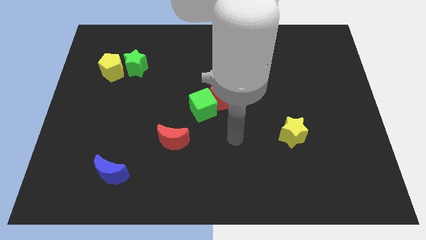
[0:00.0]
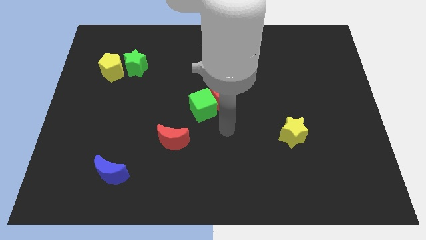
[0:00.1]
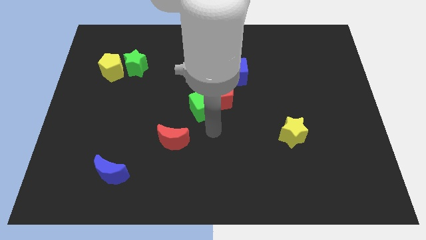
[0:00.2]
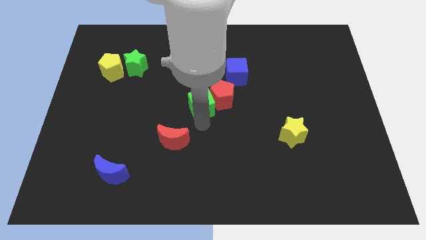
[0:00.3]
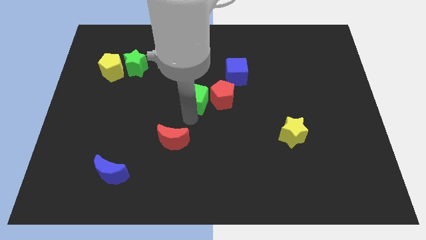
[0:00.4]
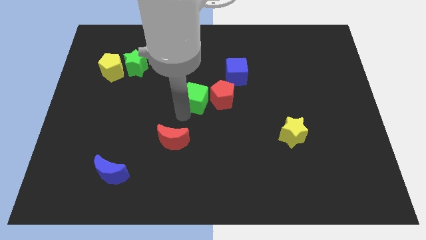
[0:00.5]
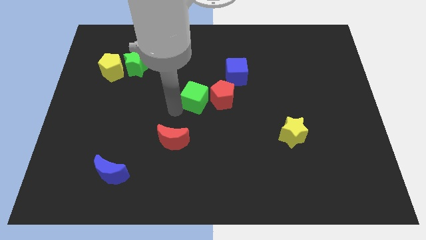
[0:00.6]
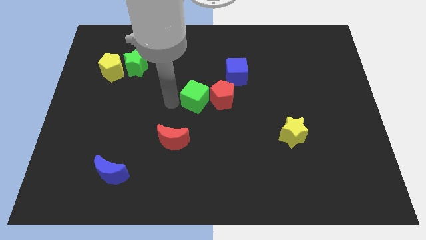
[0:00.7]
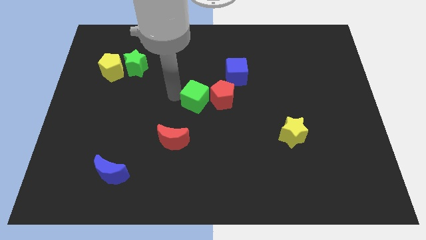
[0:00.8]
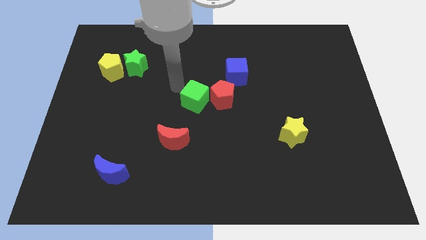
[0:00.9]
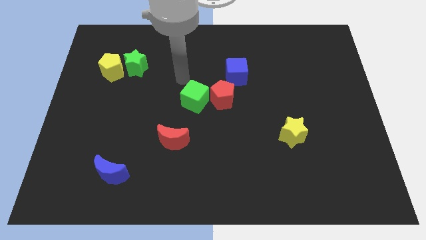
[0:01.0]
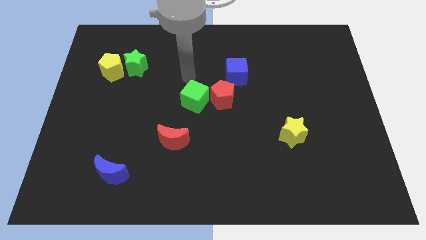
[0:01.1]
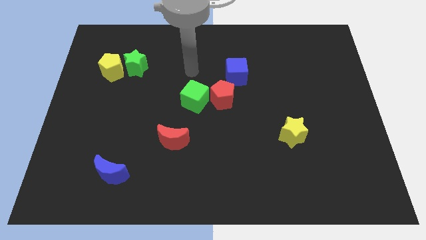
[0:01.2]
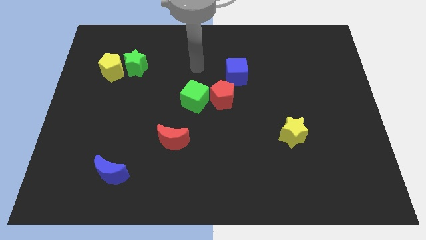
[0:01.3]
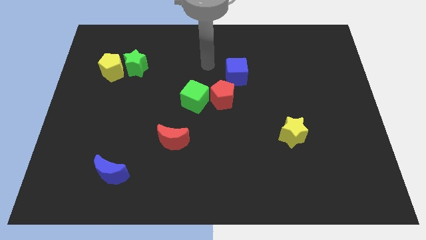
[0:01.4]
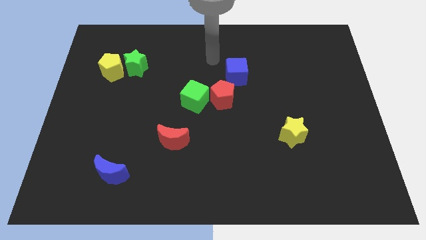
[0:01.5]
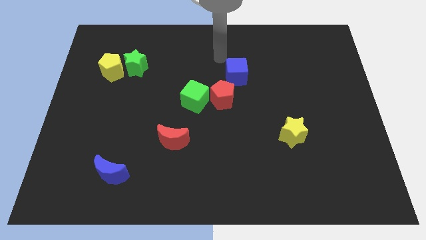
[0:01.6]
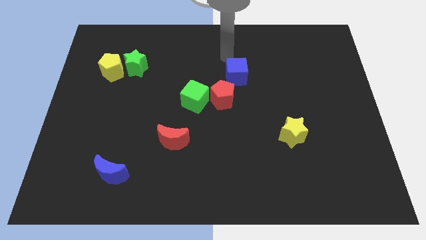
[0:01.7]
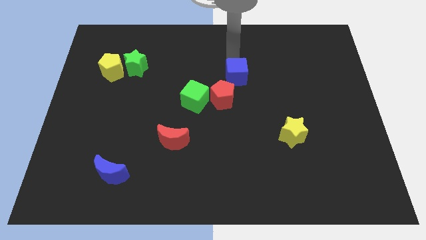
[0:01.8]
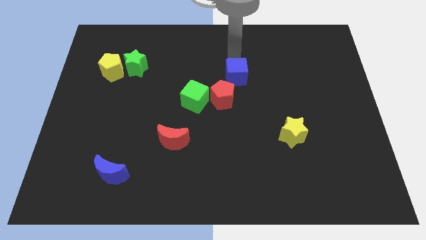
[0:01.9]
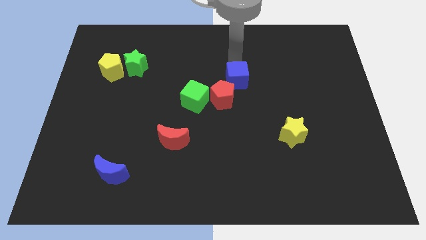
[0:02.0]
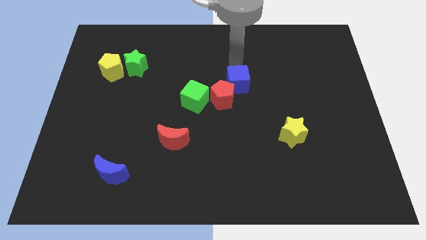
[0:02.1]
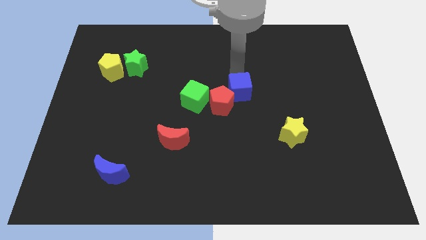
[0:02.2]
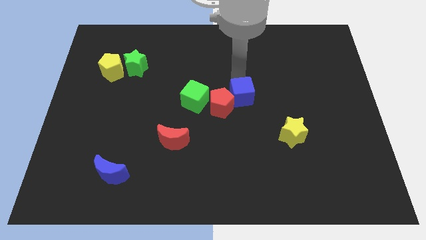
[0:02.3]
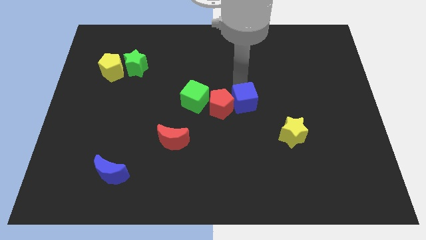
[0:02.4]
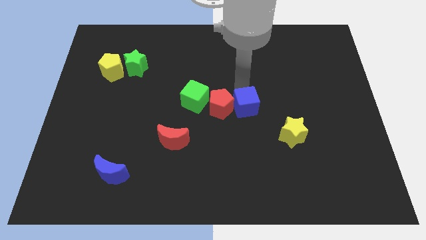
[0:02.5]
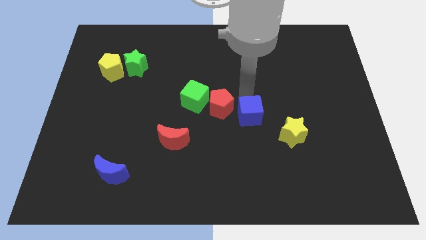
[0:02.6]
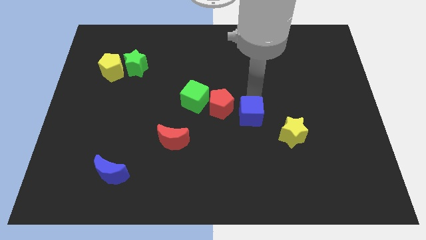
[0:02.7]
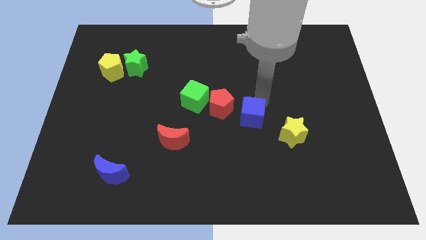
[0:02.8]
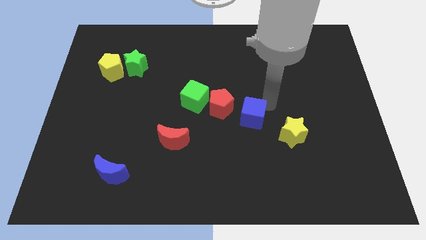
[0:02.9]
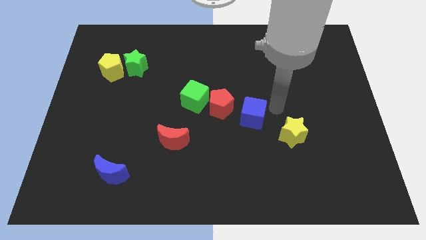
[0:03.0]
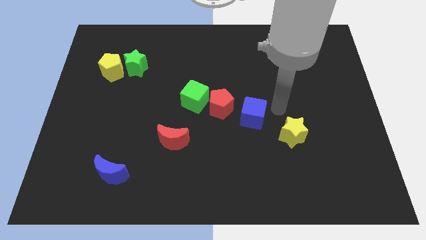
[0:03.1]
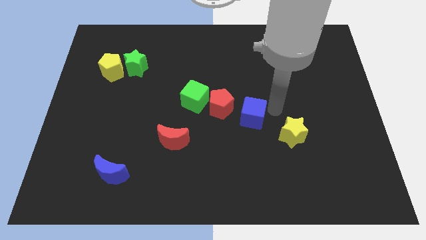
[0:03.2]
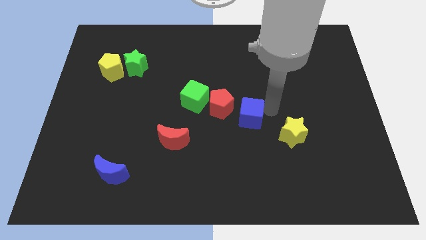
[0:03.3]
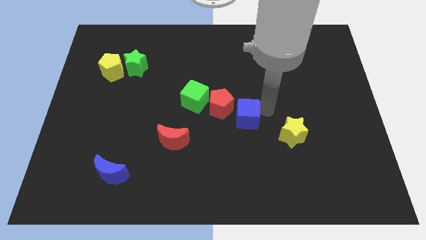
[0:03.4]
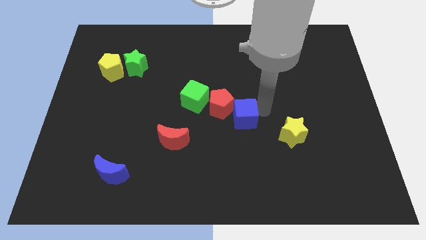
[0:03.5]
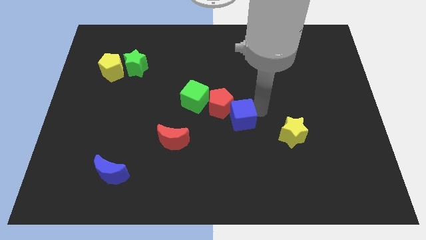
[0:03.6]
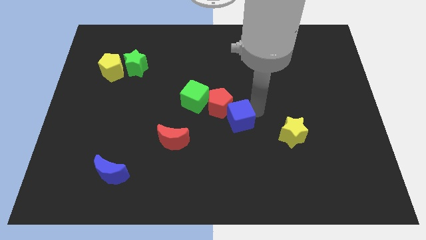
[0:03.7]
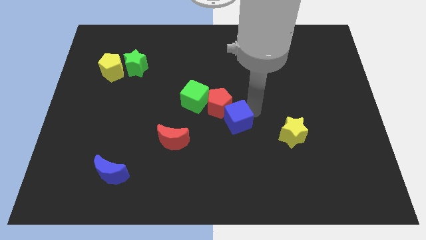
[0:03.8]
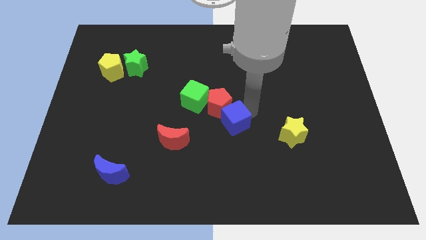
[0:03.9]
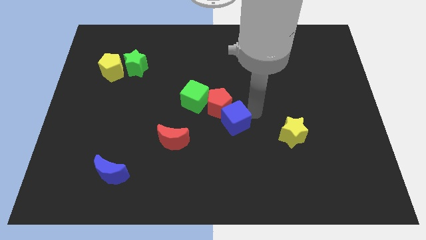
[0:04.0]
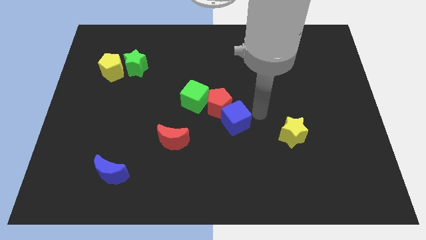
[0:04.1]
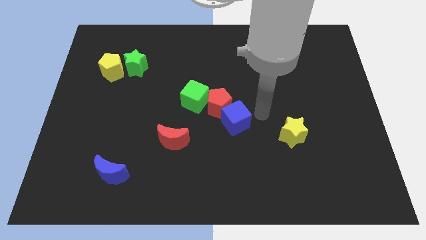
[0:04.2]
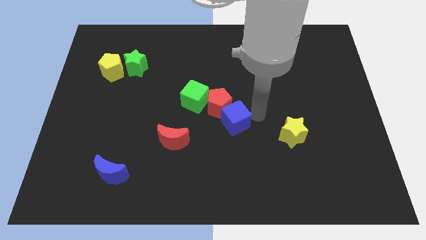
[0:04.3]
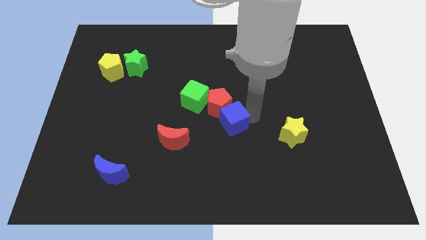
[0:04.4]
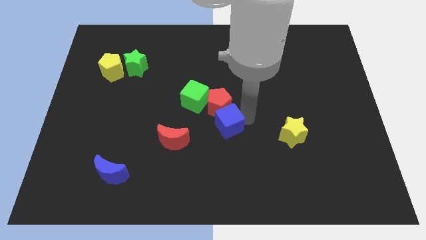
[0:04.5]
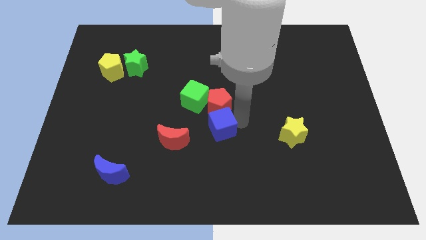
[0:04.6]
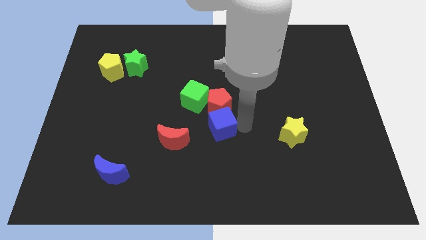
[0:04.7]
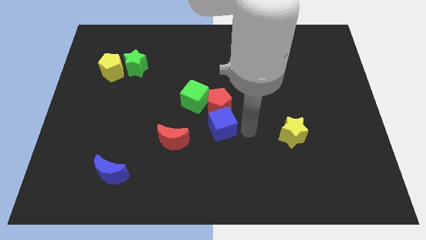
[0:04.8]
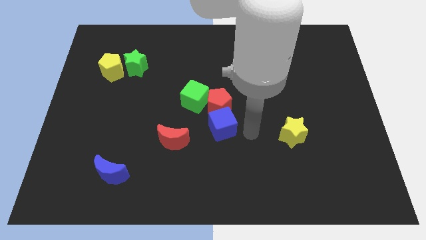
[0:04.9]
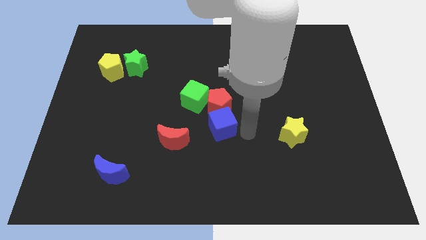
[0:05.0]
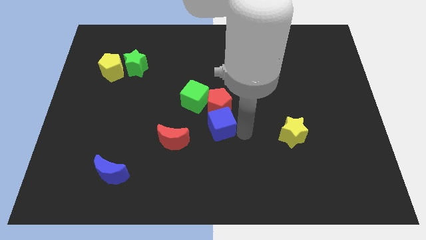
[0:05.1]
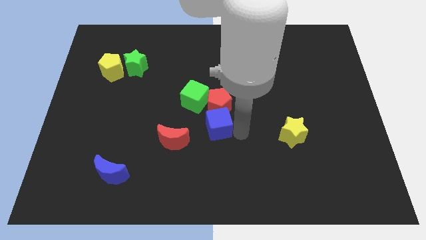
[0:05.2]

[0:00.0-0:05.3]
put the blue cube to the top right side of the red moon

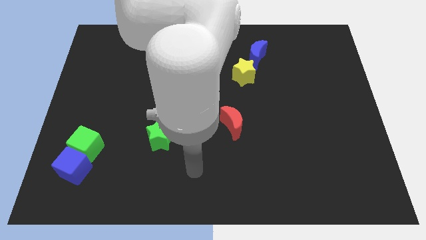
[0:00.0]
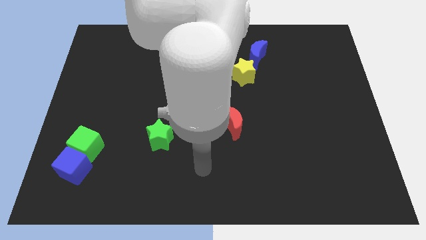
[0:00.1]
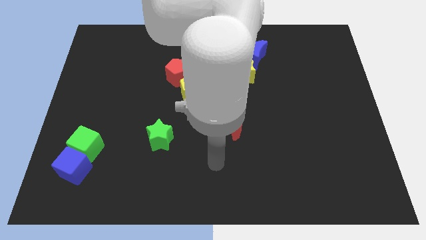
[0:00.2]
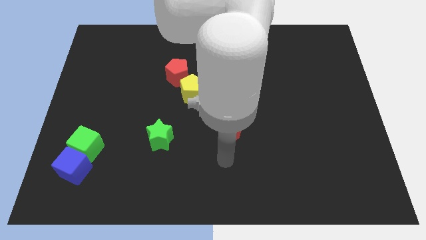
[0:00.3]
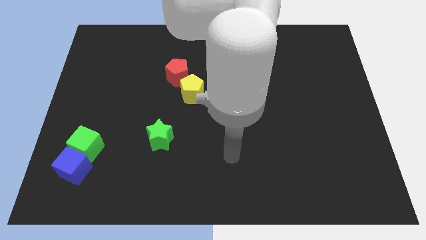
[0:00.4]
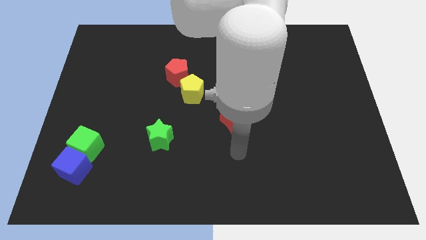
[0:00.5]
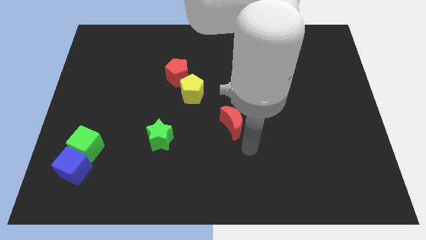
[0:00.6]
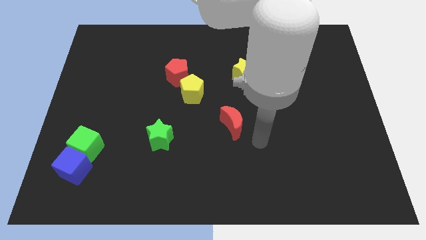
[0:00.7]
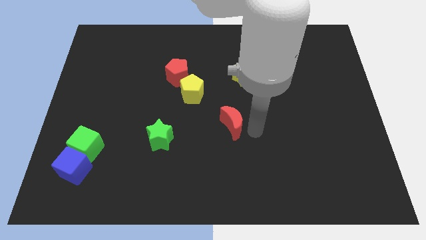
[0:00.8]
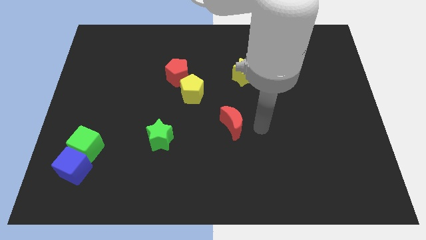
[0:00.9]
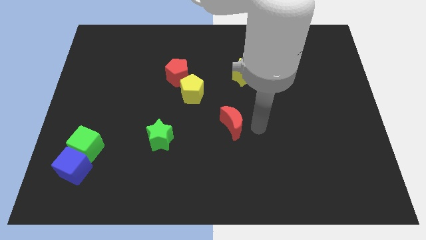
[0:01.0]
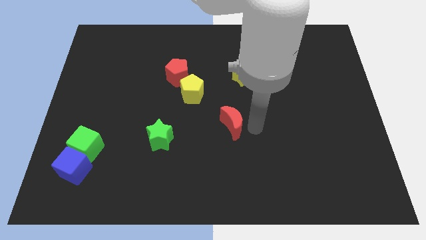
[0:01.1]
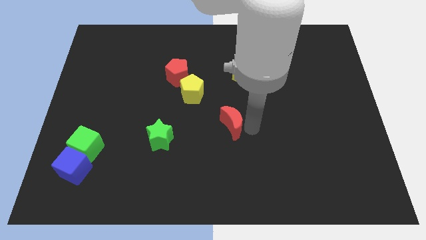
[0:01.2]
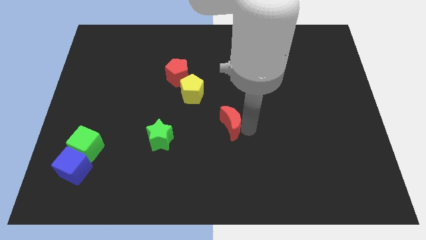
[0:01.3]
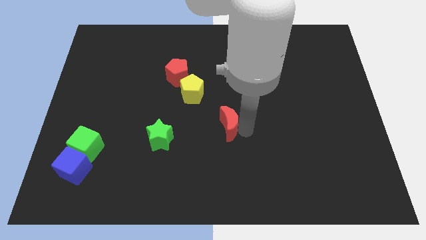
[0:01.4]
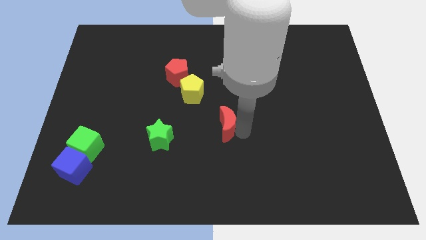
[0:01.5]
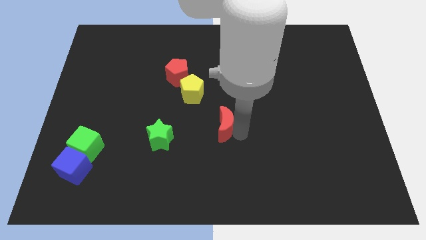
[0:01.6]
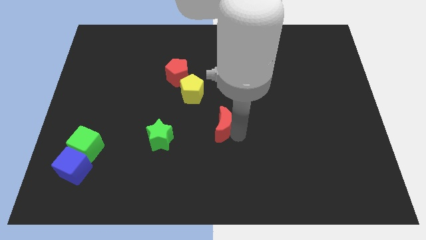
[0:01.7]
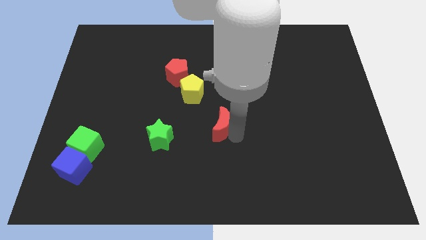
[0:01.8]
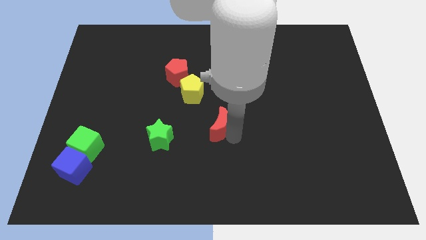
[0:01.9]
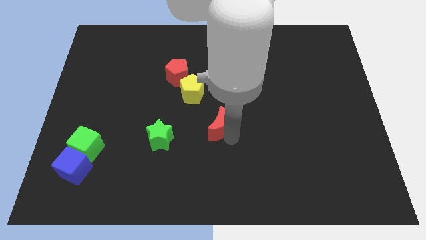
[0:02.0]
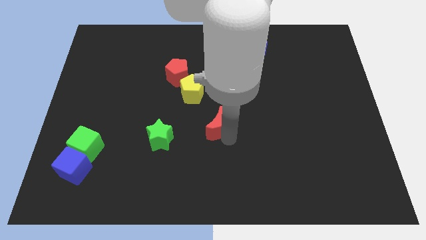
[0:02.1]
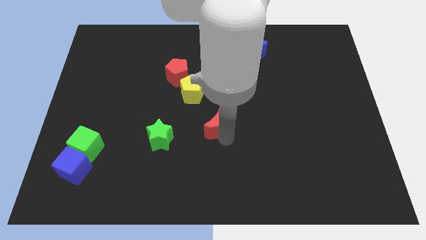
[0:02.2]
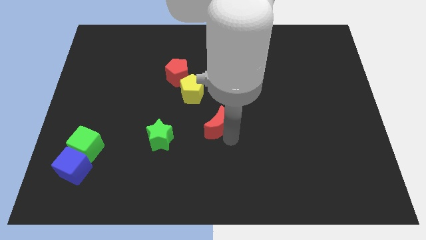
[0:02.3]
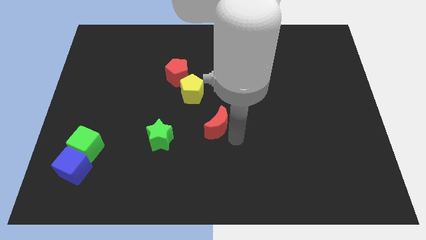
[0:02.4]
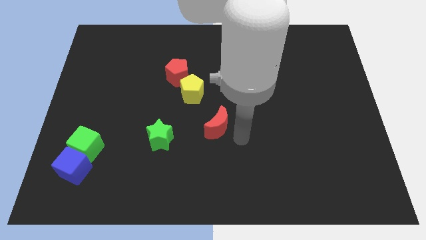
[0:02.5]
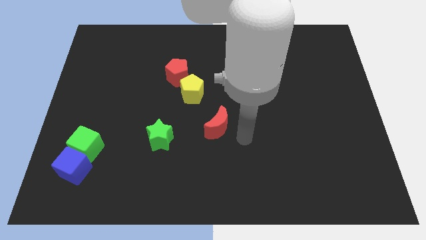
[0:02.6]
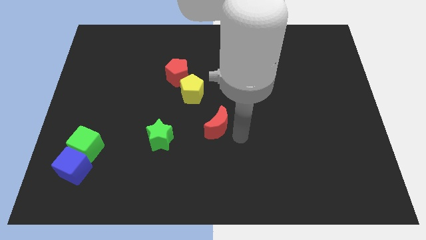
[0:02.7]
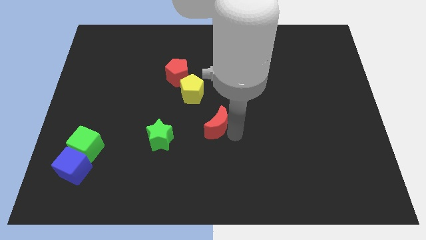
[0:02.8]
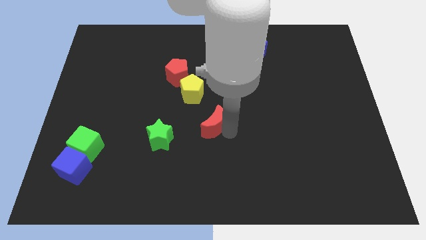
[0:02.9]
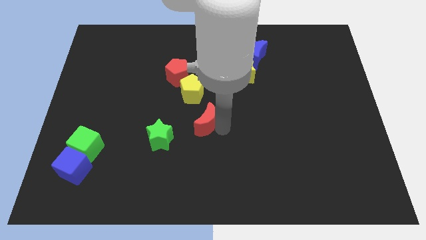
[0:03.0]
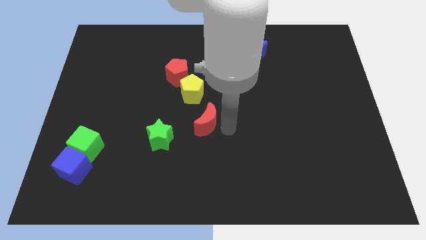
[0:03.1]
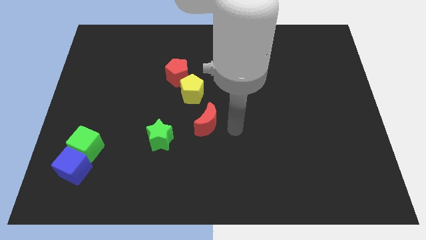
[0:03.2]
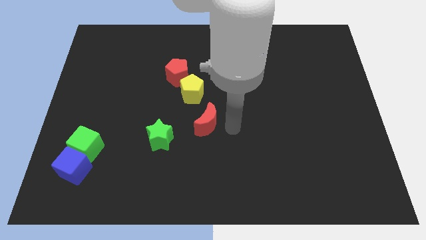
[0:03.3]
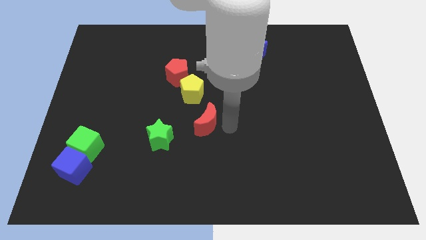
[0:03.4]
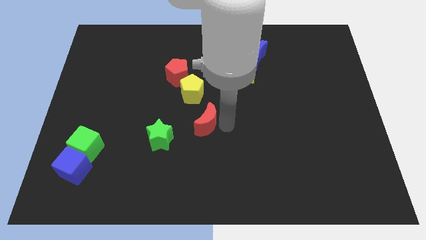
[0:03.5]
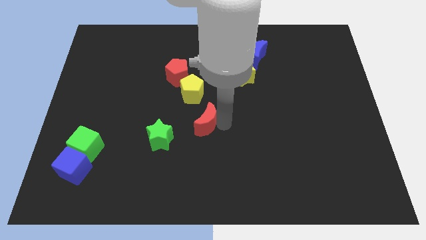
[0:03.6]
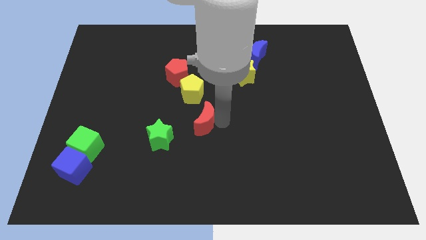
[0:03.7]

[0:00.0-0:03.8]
move the red moon to the top right side of the green star
